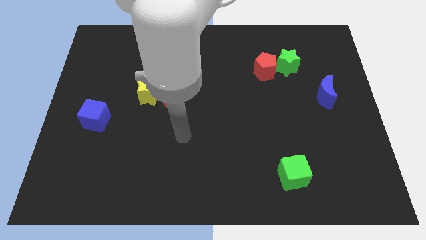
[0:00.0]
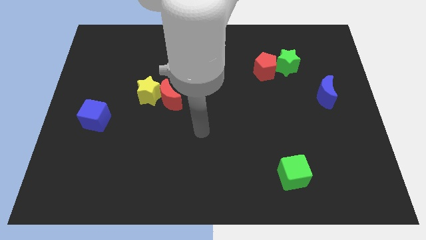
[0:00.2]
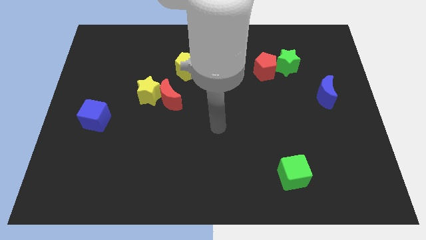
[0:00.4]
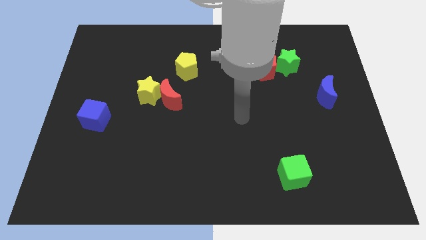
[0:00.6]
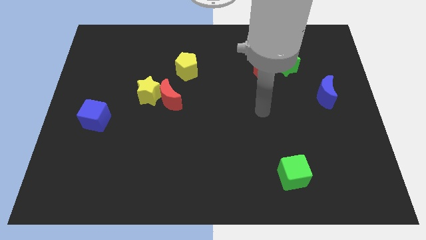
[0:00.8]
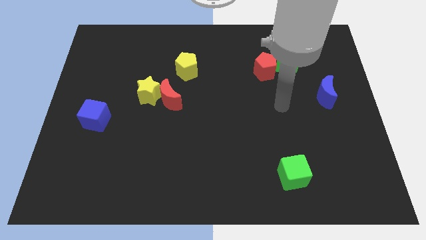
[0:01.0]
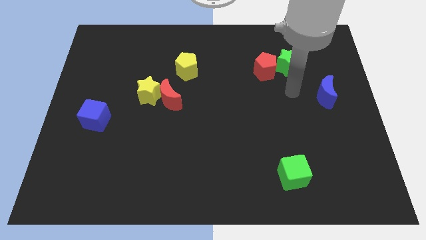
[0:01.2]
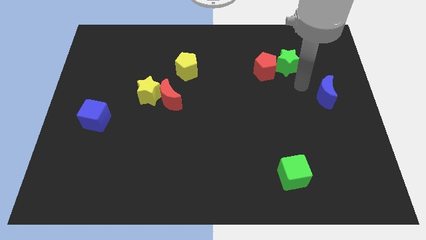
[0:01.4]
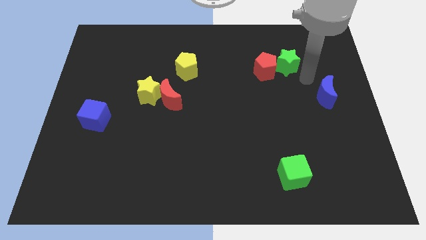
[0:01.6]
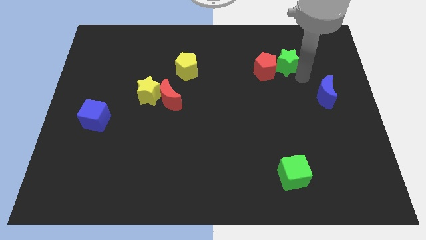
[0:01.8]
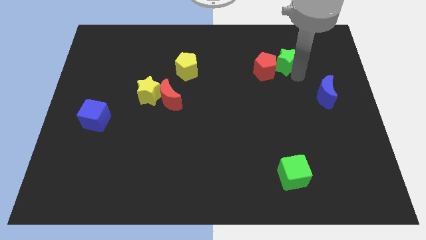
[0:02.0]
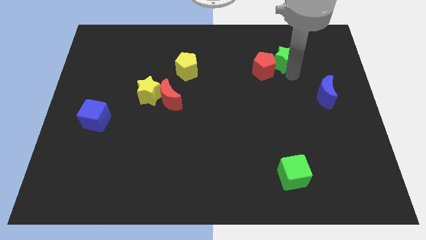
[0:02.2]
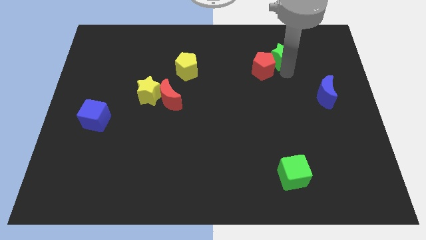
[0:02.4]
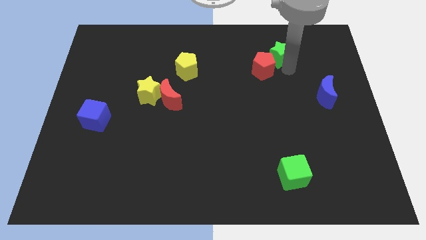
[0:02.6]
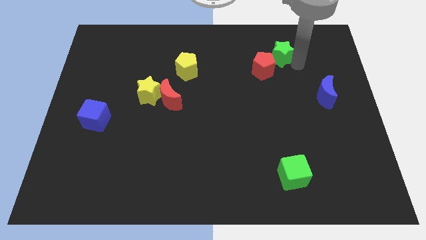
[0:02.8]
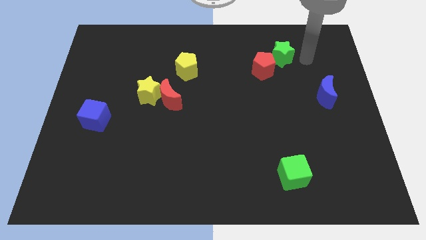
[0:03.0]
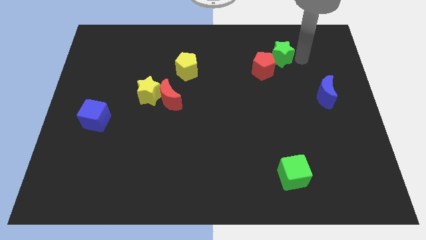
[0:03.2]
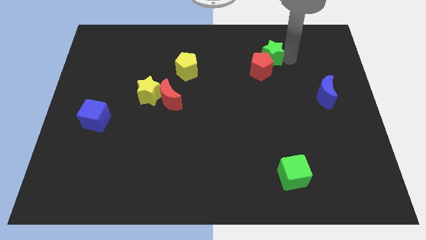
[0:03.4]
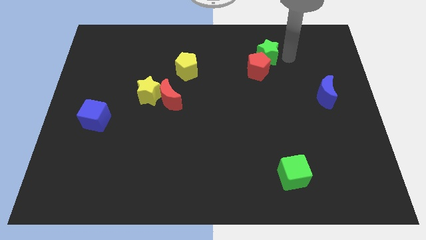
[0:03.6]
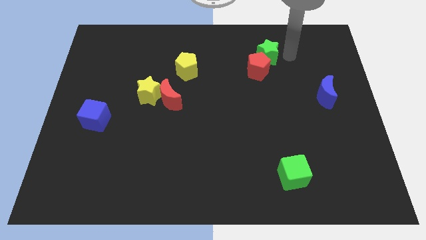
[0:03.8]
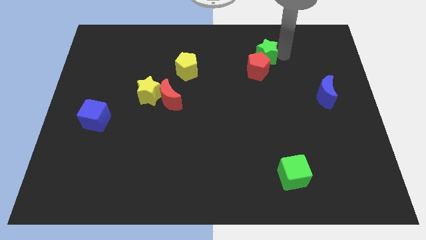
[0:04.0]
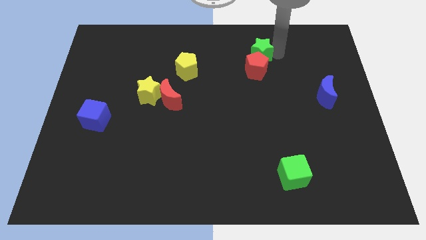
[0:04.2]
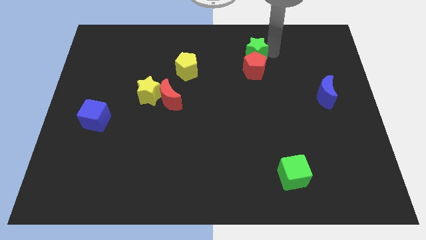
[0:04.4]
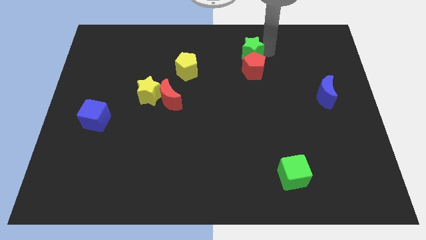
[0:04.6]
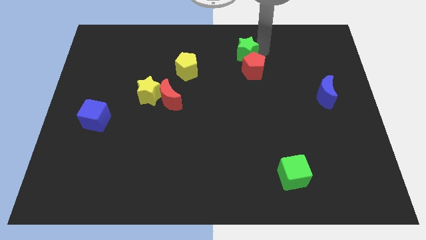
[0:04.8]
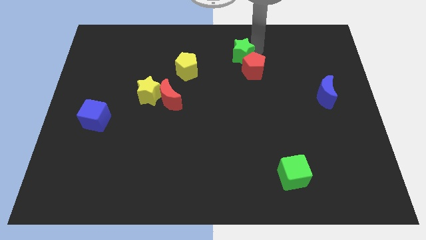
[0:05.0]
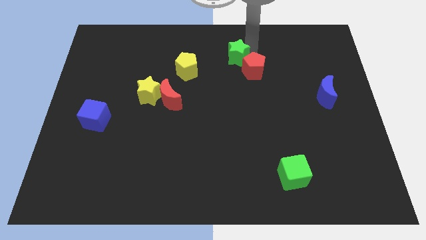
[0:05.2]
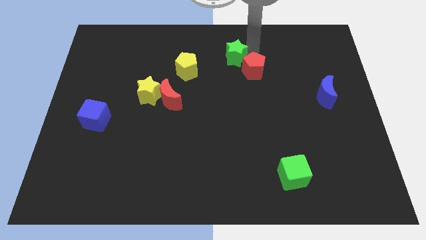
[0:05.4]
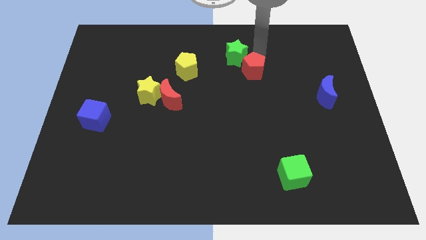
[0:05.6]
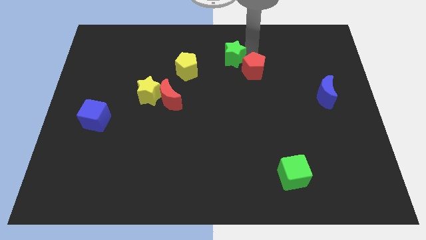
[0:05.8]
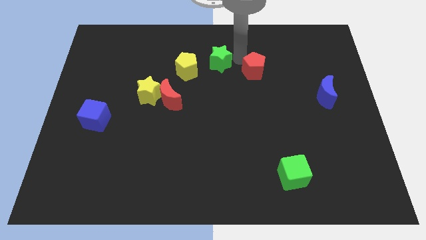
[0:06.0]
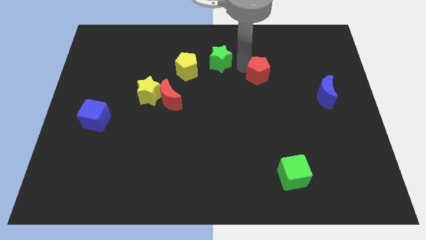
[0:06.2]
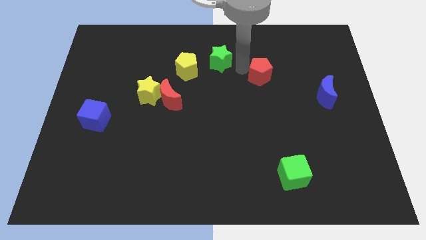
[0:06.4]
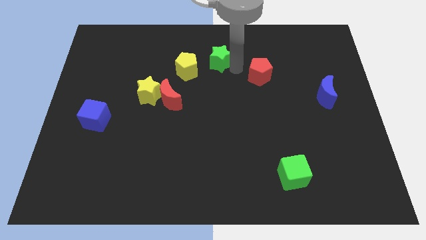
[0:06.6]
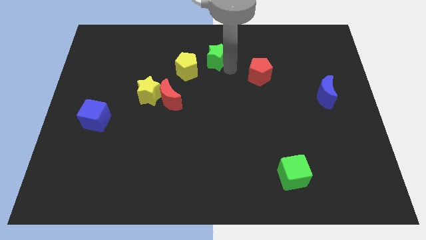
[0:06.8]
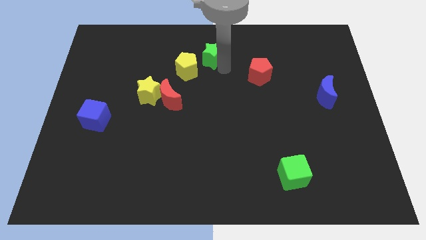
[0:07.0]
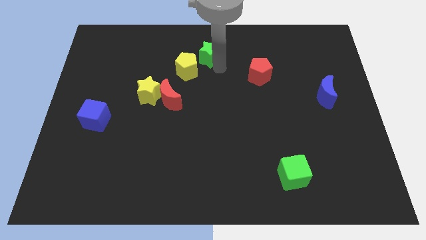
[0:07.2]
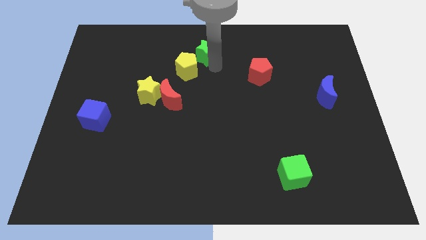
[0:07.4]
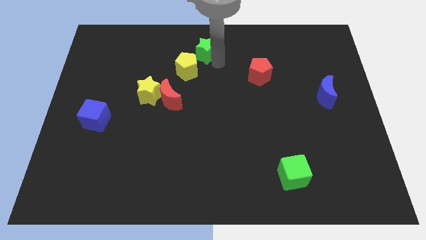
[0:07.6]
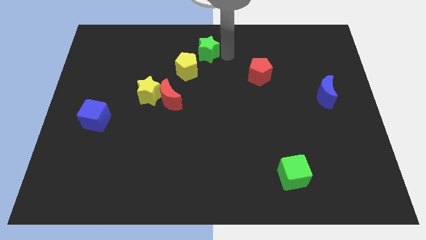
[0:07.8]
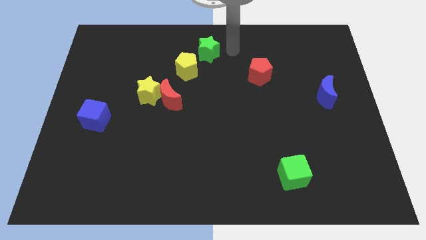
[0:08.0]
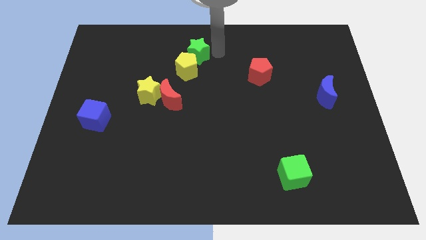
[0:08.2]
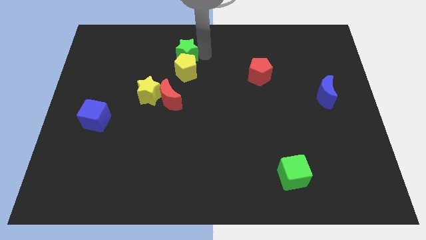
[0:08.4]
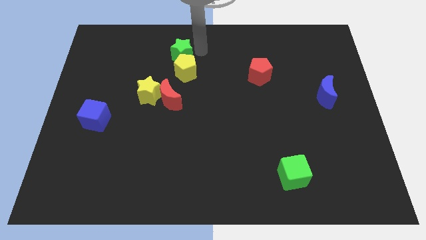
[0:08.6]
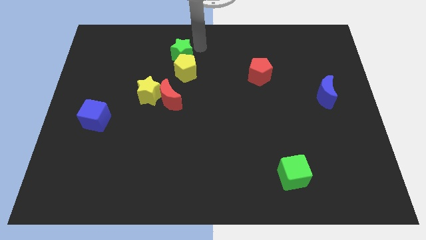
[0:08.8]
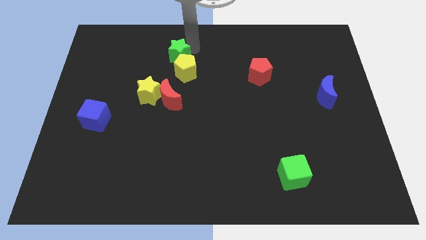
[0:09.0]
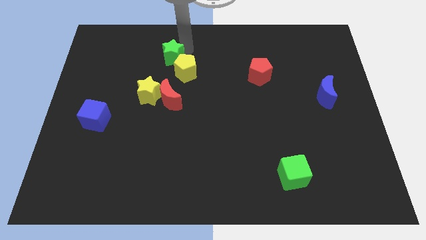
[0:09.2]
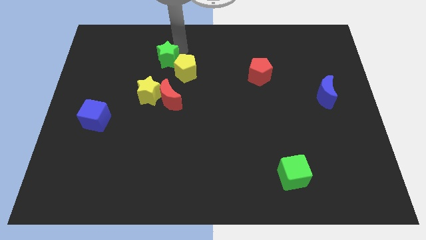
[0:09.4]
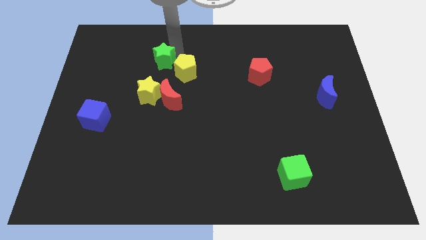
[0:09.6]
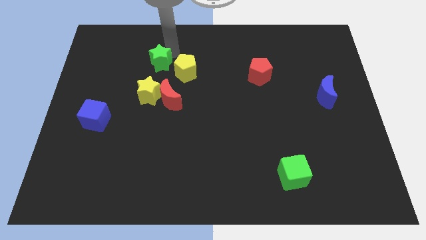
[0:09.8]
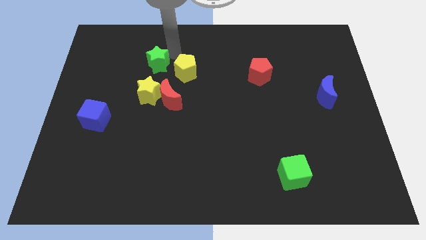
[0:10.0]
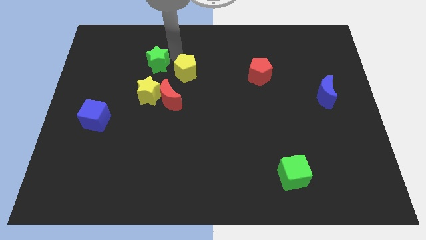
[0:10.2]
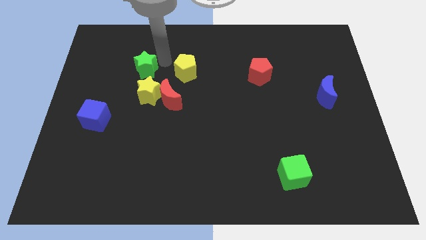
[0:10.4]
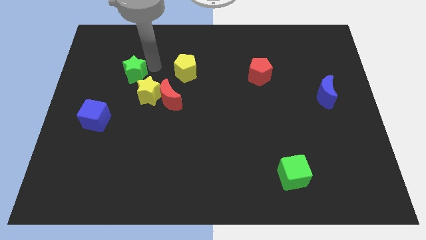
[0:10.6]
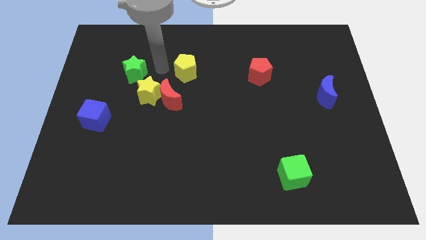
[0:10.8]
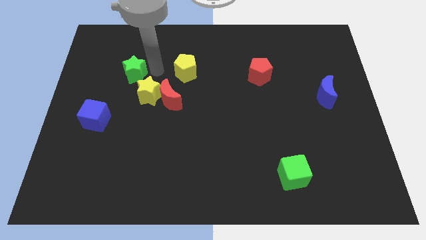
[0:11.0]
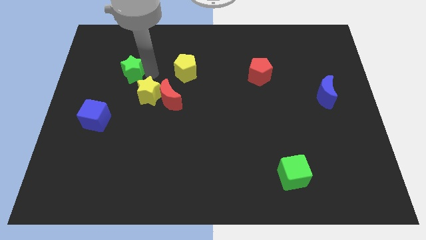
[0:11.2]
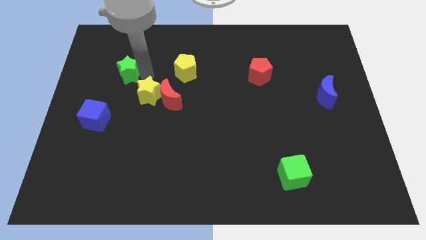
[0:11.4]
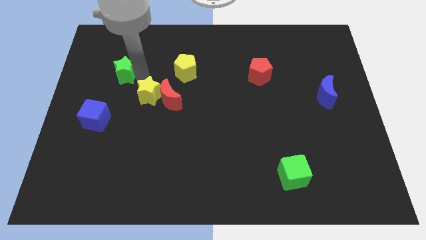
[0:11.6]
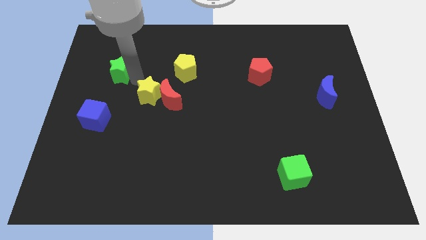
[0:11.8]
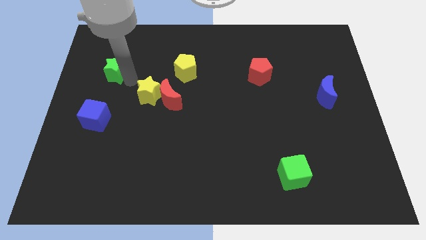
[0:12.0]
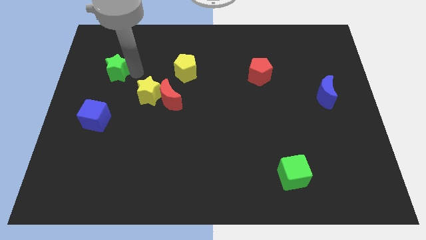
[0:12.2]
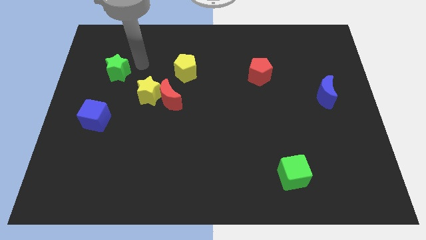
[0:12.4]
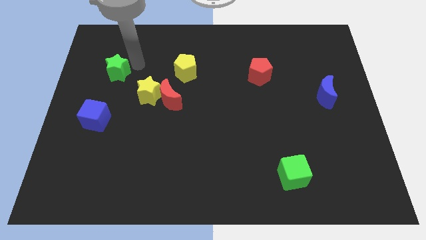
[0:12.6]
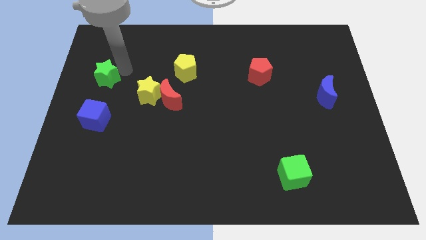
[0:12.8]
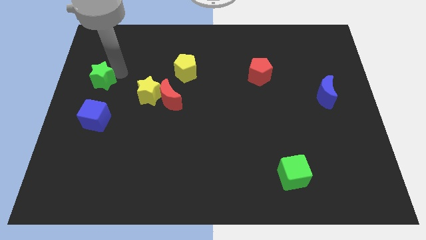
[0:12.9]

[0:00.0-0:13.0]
put the green star to the left side
